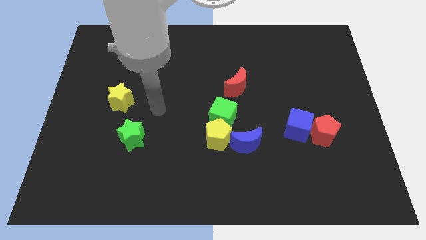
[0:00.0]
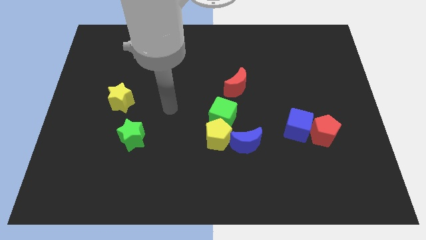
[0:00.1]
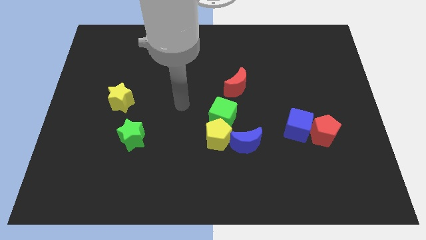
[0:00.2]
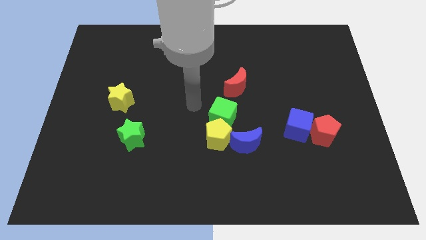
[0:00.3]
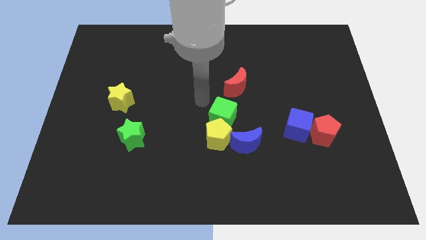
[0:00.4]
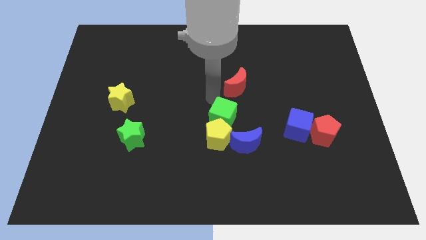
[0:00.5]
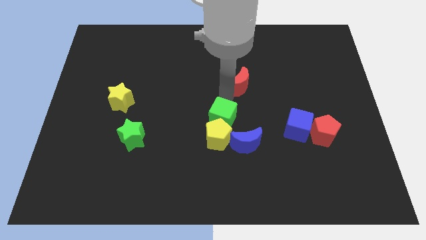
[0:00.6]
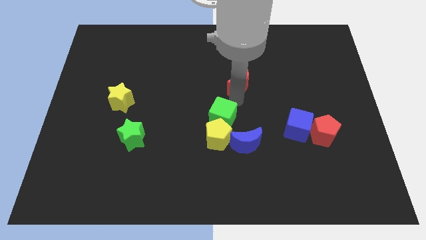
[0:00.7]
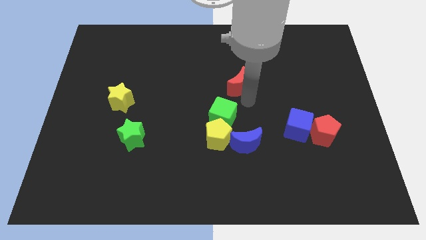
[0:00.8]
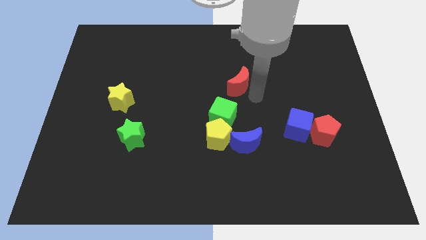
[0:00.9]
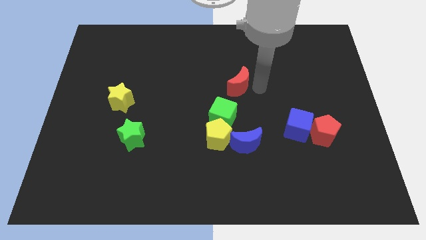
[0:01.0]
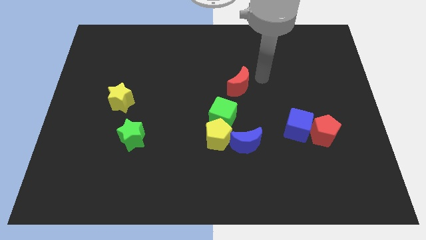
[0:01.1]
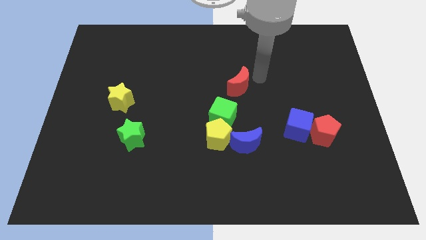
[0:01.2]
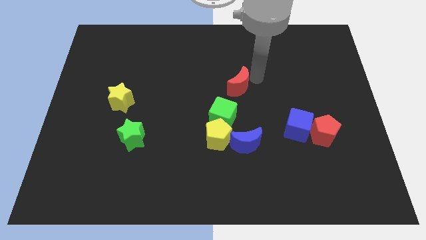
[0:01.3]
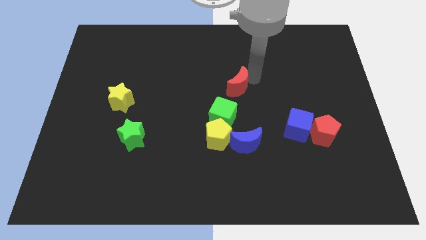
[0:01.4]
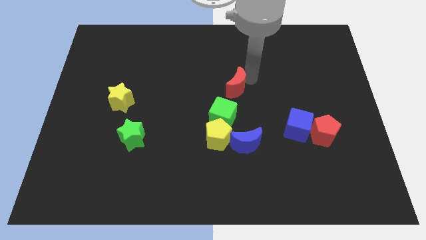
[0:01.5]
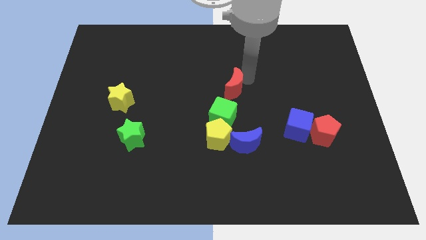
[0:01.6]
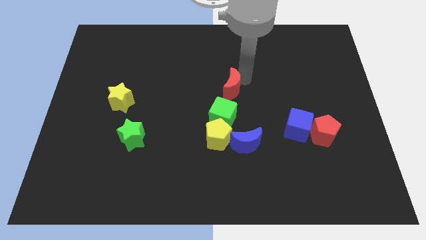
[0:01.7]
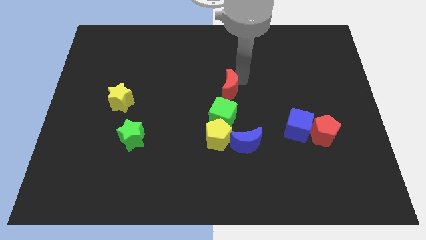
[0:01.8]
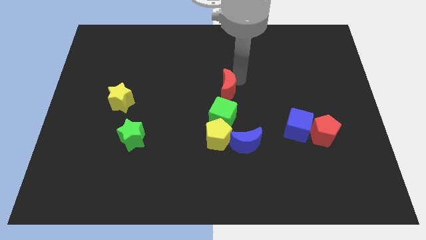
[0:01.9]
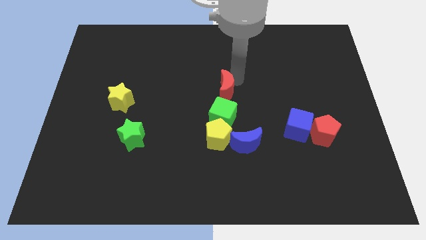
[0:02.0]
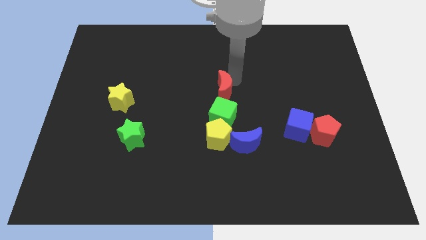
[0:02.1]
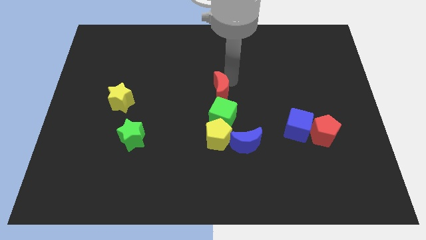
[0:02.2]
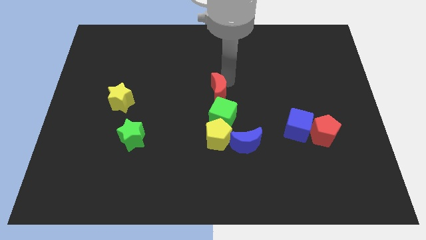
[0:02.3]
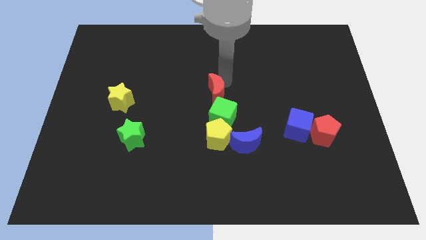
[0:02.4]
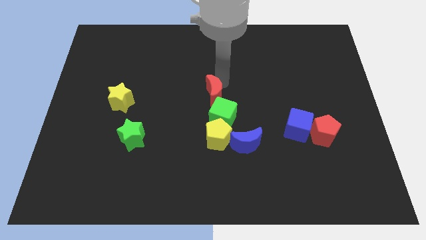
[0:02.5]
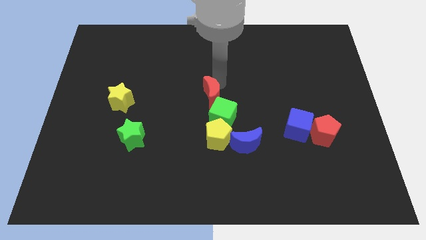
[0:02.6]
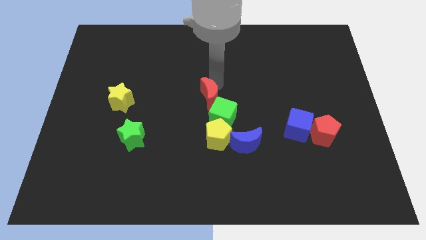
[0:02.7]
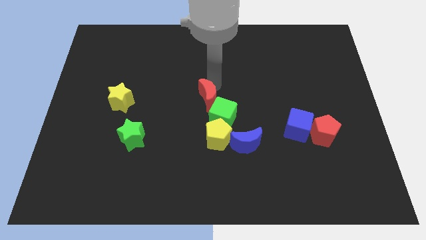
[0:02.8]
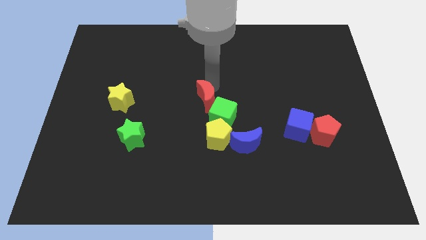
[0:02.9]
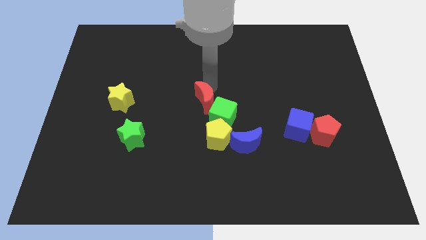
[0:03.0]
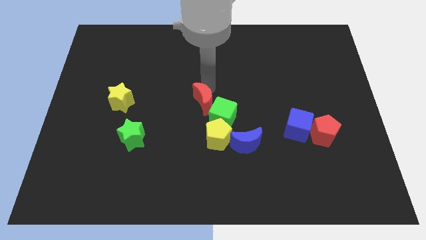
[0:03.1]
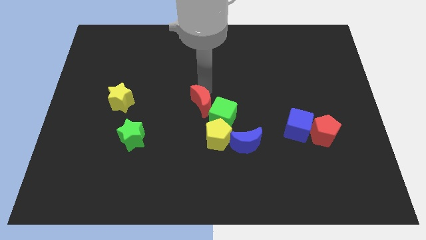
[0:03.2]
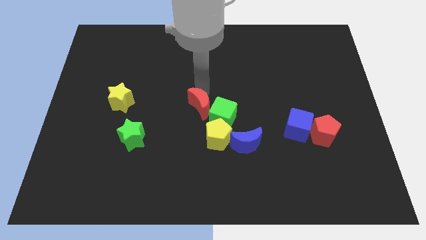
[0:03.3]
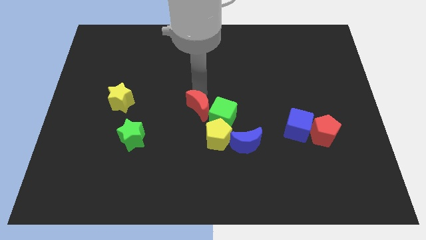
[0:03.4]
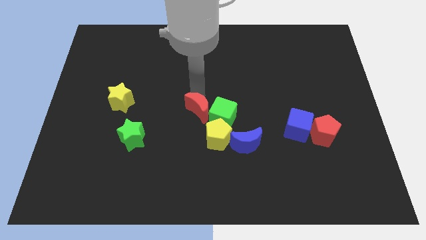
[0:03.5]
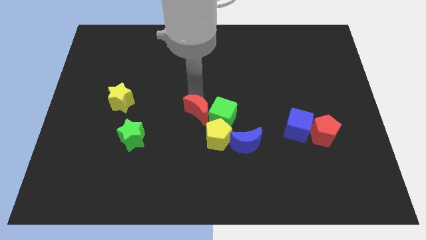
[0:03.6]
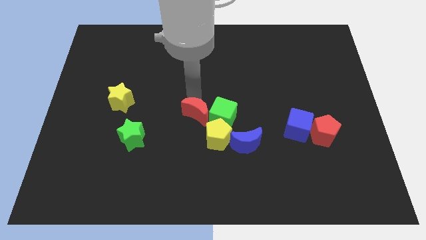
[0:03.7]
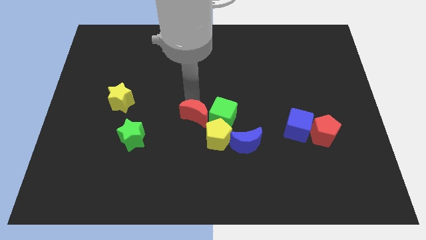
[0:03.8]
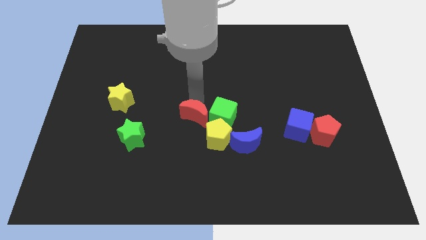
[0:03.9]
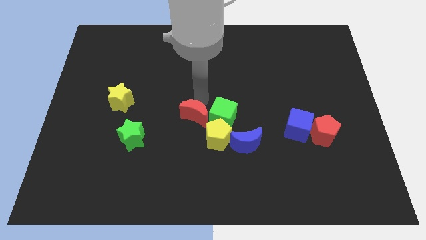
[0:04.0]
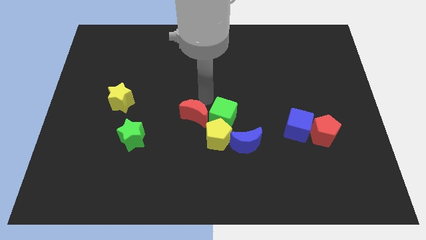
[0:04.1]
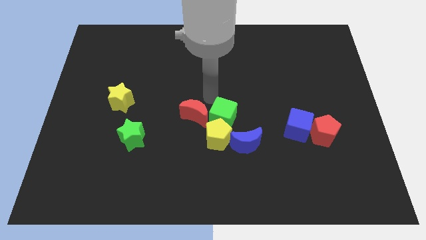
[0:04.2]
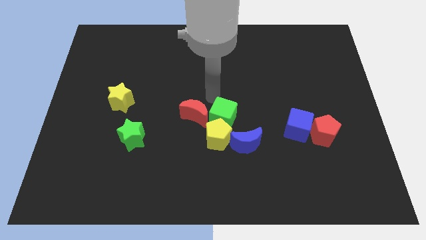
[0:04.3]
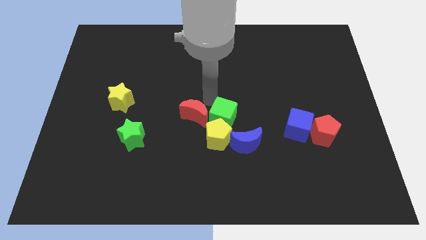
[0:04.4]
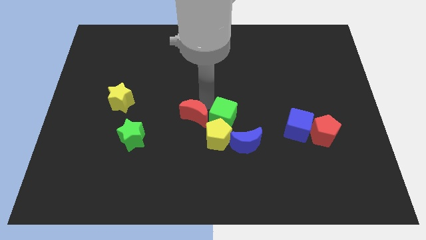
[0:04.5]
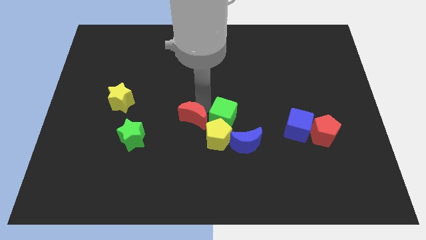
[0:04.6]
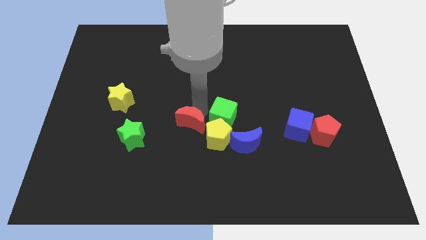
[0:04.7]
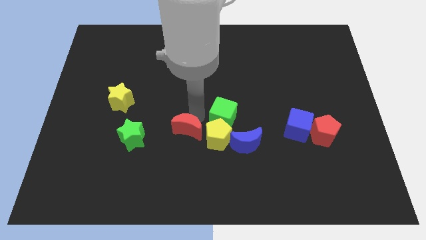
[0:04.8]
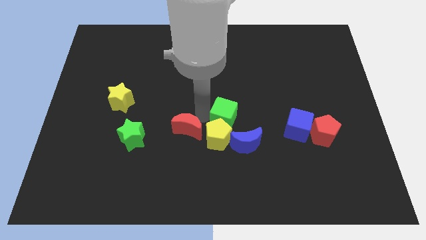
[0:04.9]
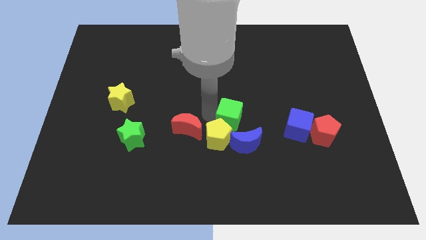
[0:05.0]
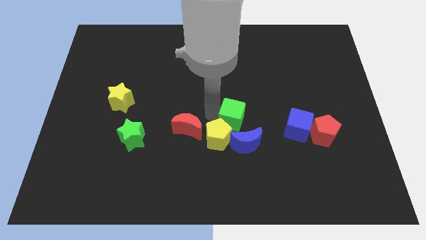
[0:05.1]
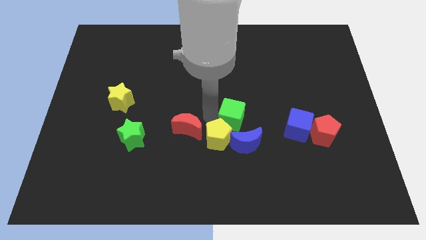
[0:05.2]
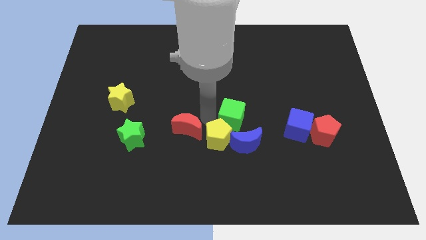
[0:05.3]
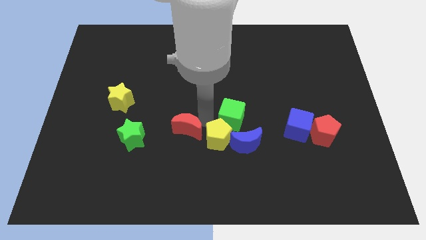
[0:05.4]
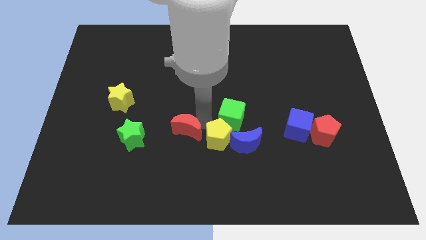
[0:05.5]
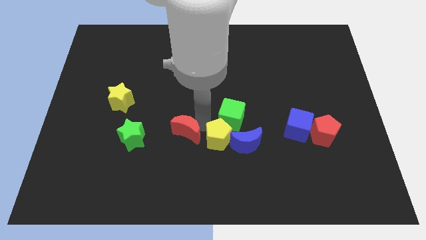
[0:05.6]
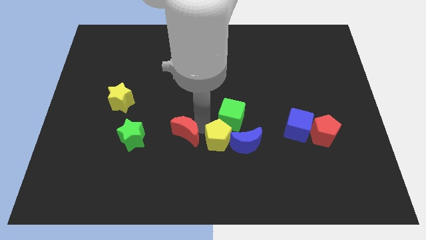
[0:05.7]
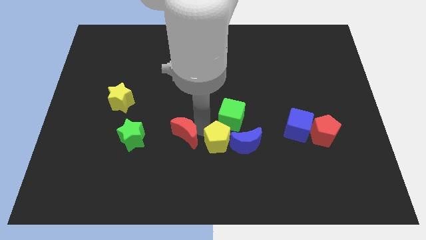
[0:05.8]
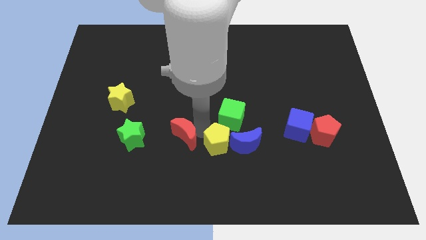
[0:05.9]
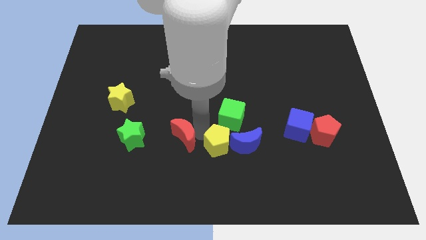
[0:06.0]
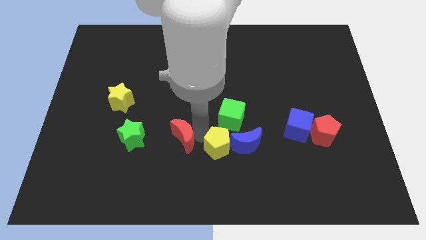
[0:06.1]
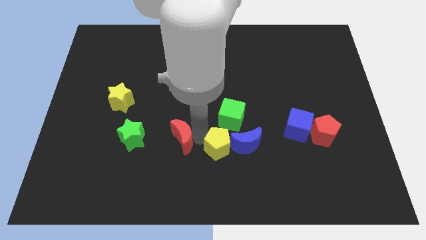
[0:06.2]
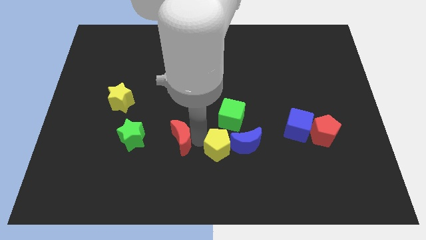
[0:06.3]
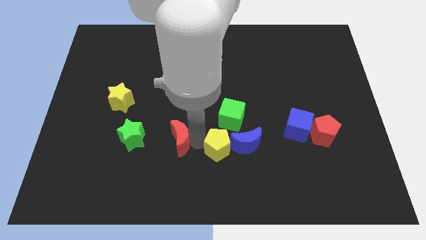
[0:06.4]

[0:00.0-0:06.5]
slide the red moon downwards and left diagonally

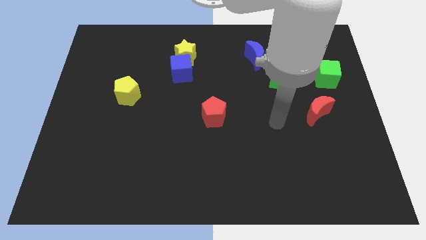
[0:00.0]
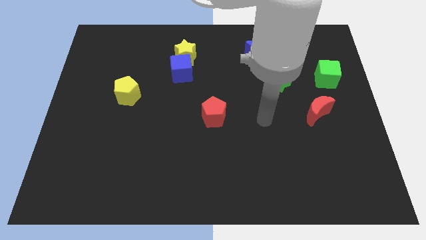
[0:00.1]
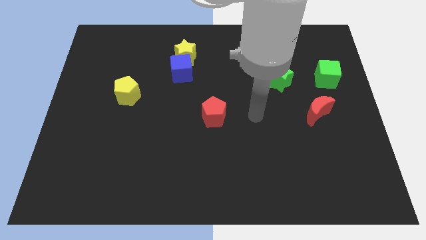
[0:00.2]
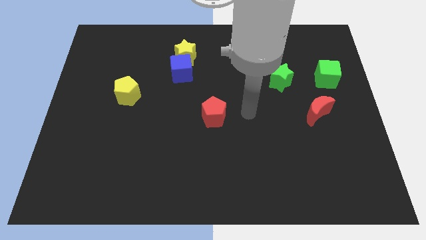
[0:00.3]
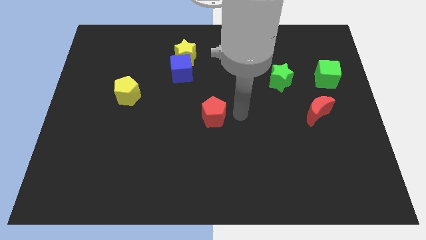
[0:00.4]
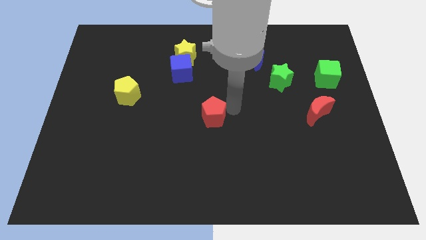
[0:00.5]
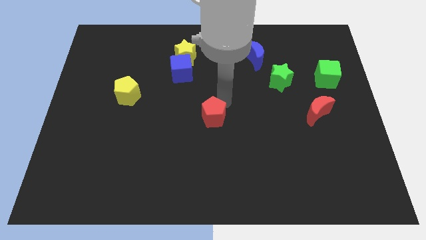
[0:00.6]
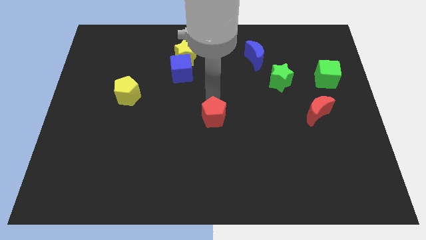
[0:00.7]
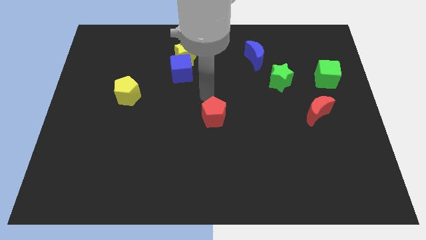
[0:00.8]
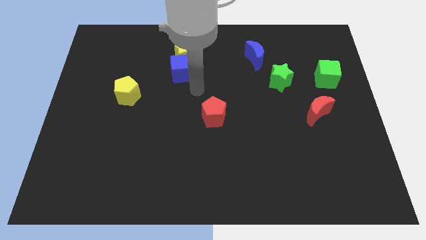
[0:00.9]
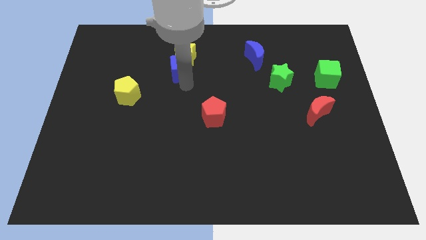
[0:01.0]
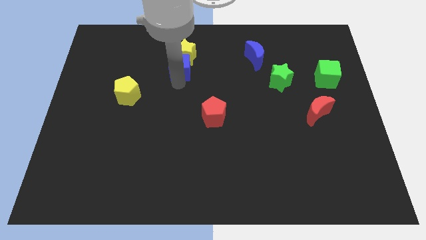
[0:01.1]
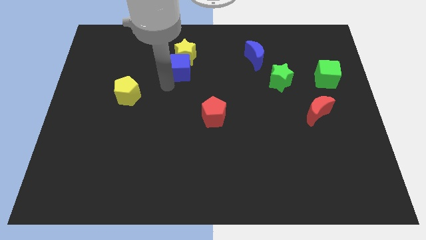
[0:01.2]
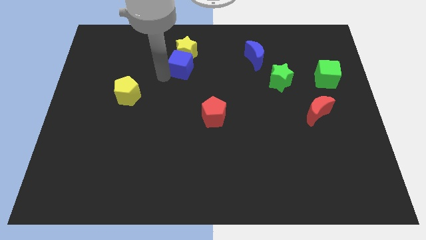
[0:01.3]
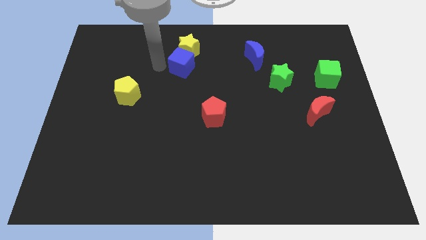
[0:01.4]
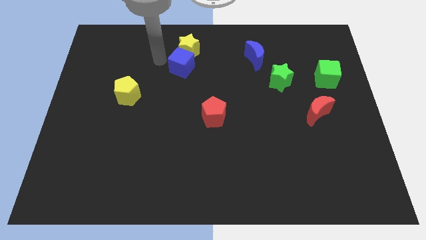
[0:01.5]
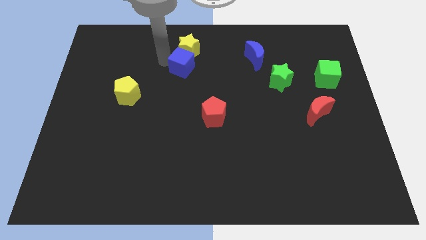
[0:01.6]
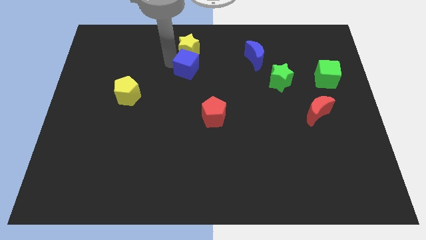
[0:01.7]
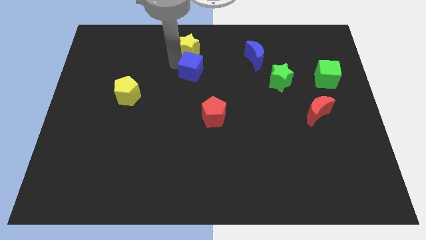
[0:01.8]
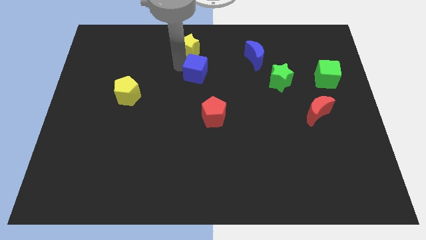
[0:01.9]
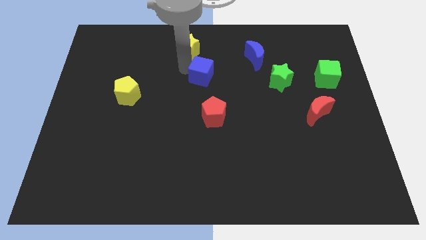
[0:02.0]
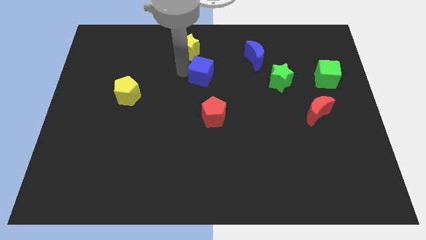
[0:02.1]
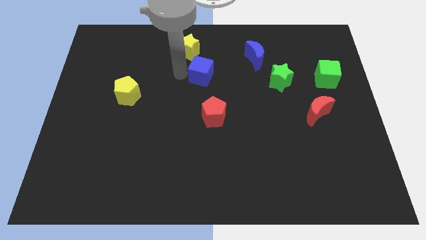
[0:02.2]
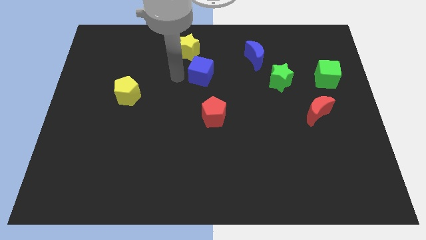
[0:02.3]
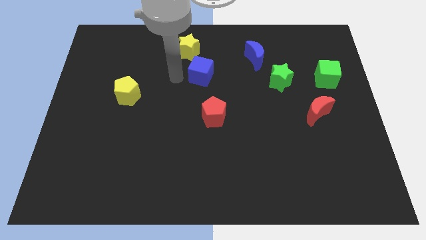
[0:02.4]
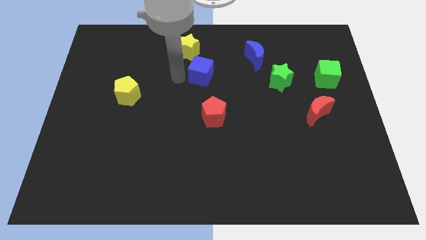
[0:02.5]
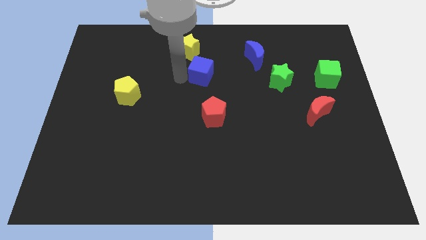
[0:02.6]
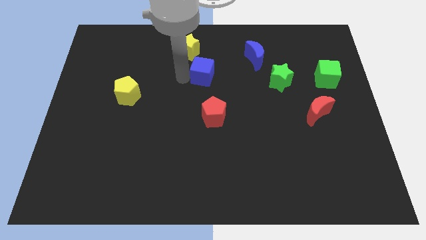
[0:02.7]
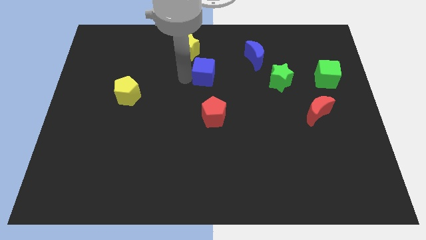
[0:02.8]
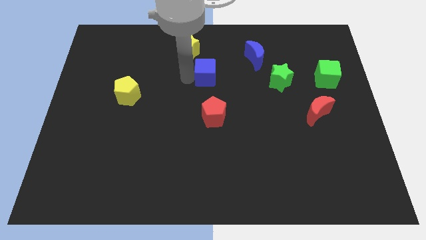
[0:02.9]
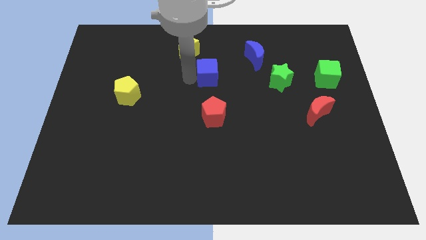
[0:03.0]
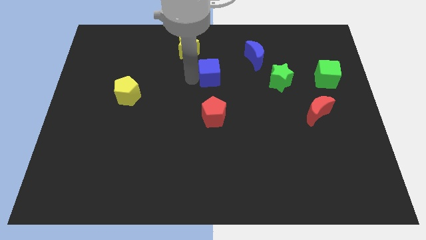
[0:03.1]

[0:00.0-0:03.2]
slightly slide the blue cube to the right
